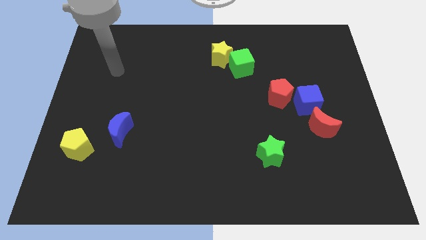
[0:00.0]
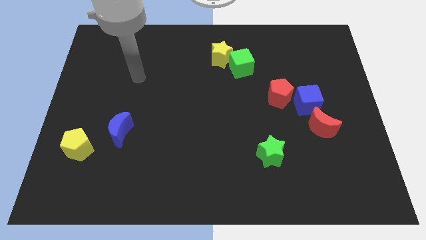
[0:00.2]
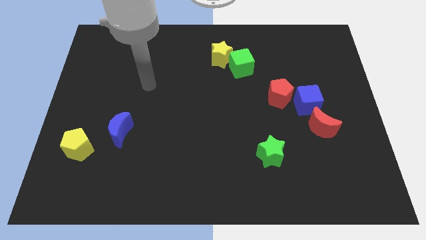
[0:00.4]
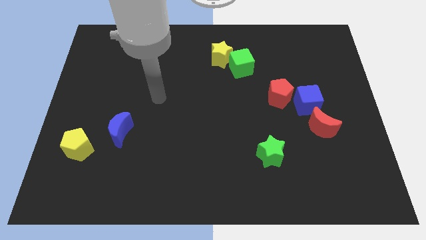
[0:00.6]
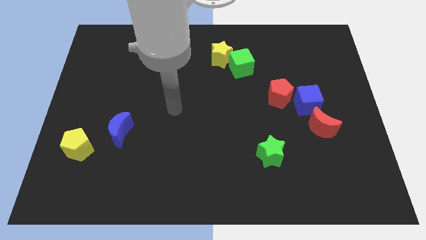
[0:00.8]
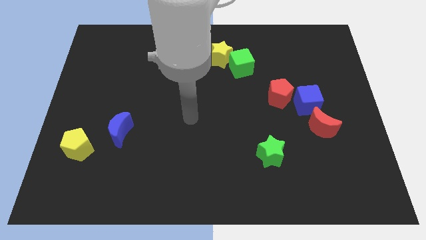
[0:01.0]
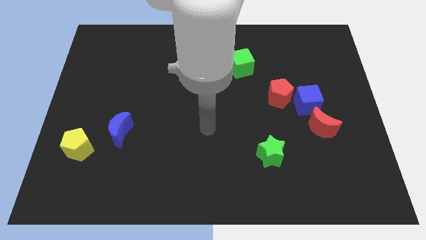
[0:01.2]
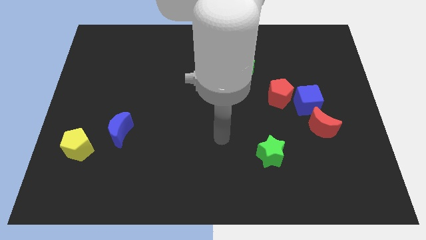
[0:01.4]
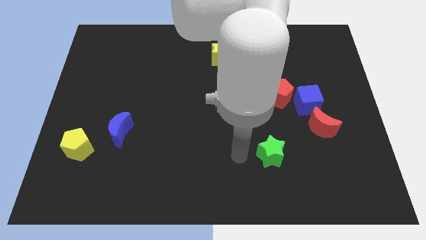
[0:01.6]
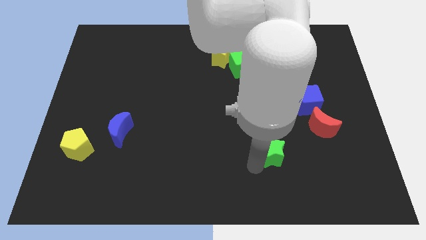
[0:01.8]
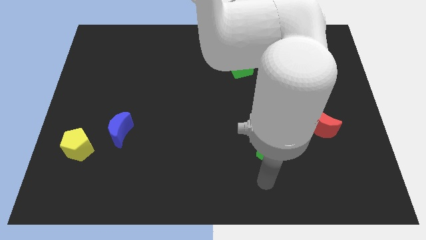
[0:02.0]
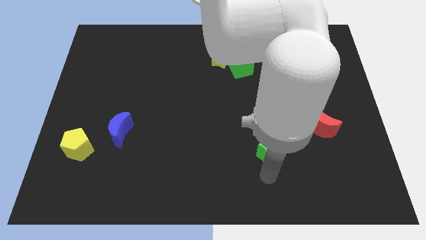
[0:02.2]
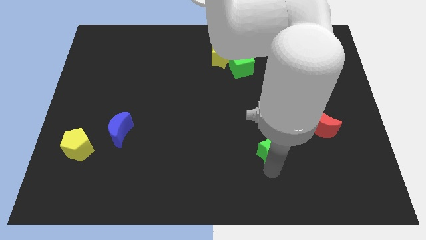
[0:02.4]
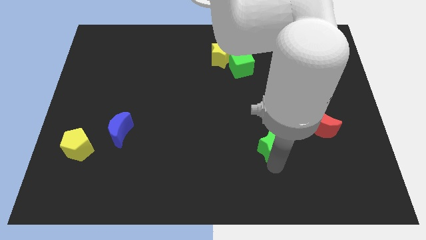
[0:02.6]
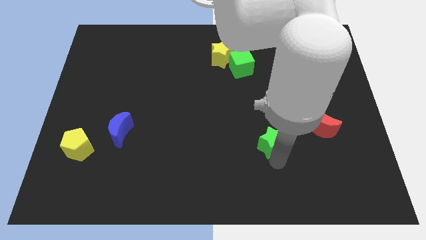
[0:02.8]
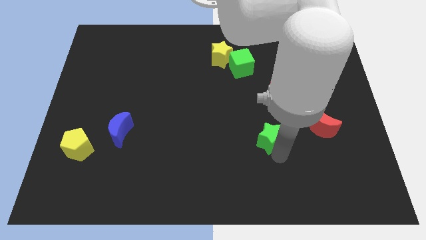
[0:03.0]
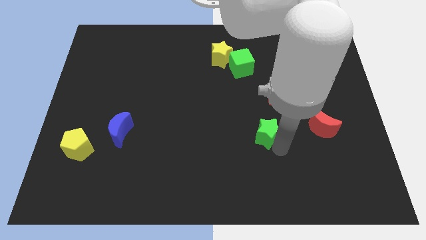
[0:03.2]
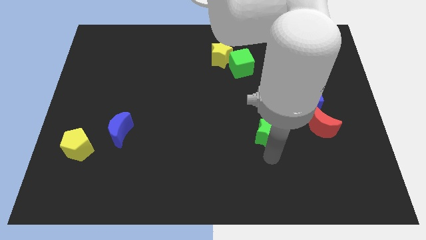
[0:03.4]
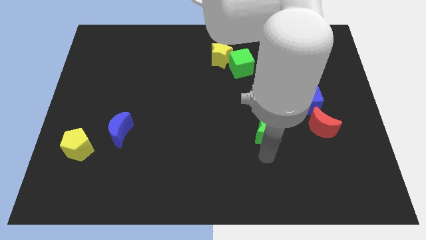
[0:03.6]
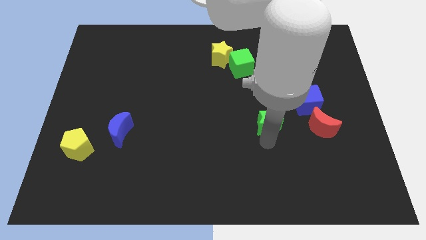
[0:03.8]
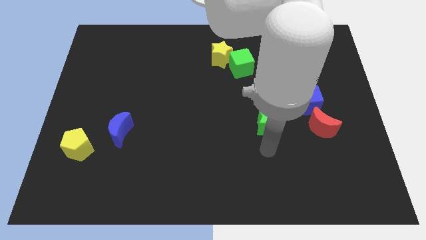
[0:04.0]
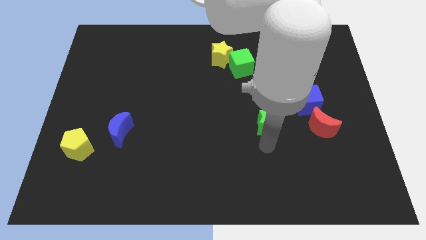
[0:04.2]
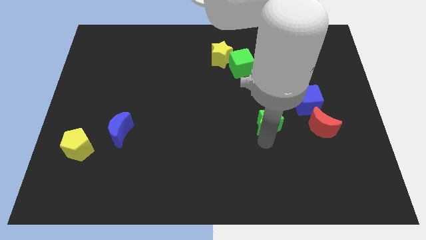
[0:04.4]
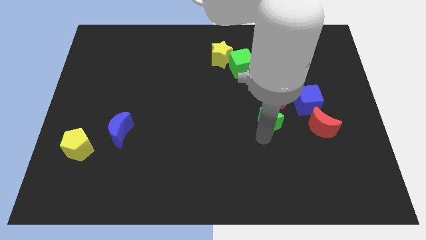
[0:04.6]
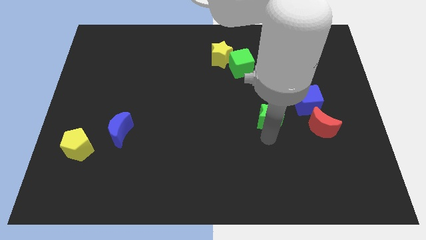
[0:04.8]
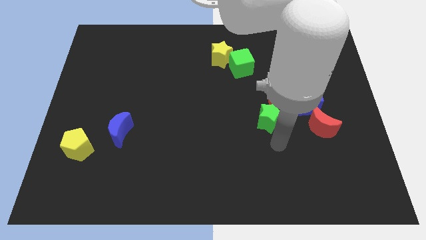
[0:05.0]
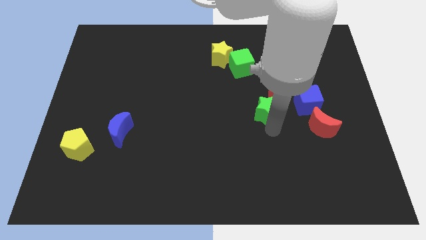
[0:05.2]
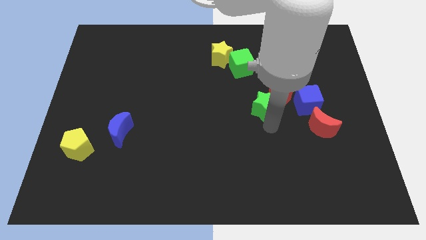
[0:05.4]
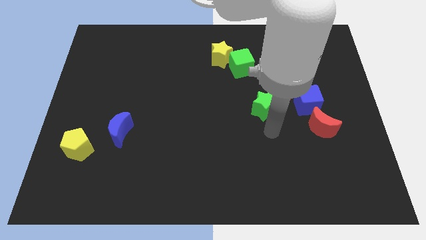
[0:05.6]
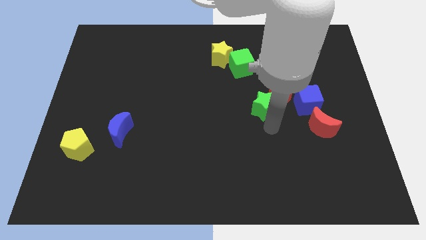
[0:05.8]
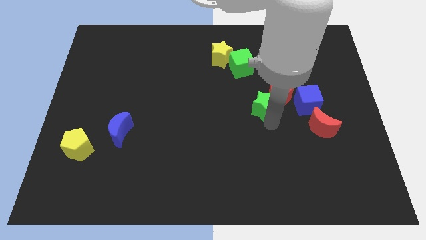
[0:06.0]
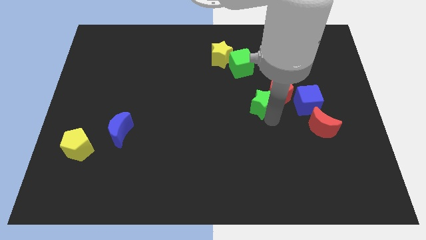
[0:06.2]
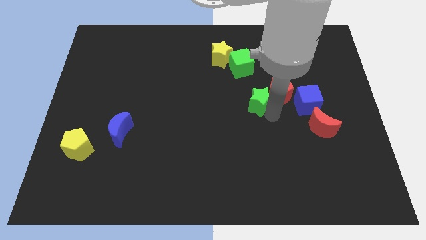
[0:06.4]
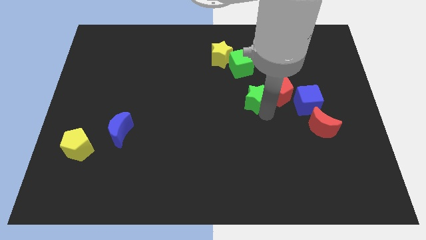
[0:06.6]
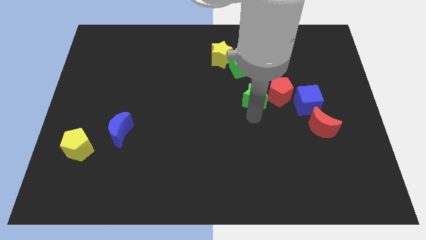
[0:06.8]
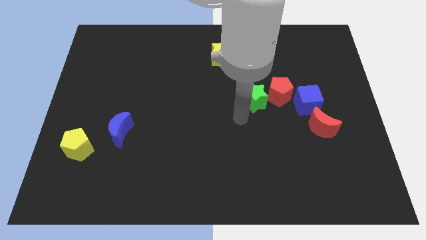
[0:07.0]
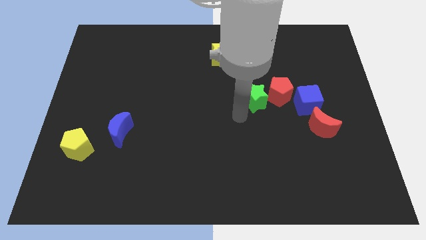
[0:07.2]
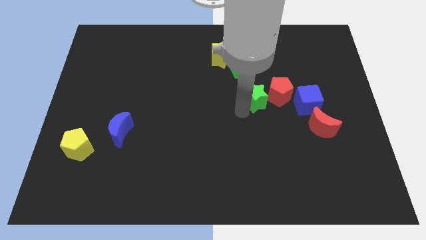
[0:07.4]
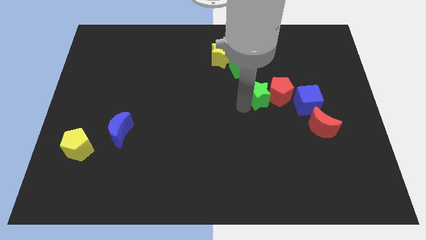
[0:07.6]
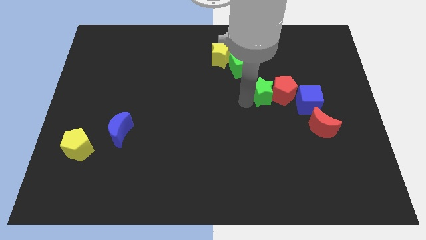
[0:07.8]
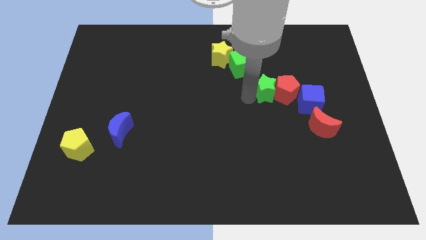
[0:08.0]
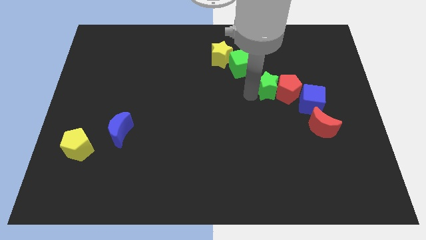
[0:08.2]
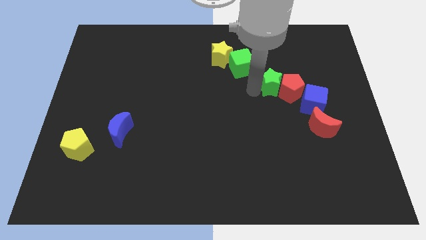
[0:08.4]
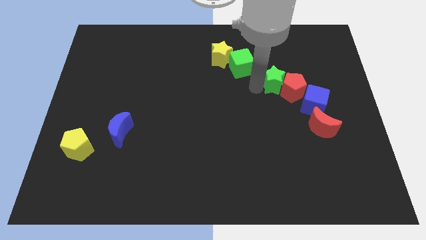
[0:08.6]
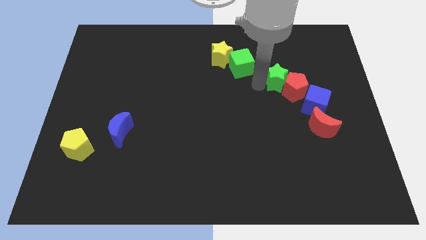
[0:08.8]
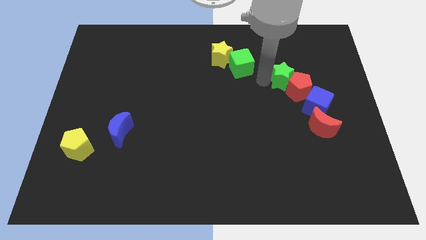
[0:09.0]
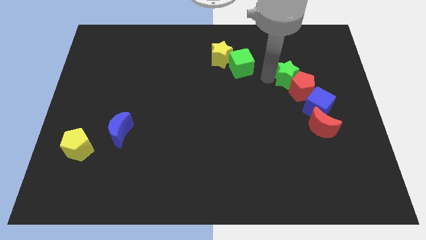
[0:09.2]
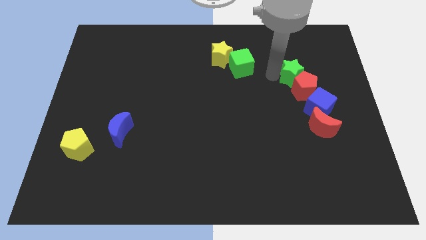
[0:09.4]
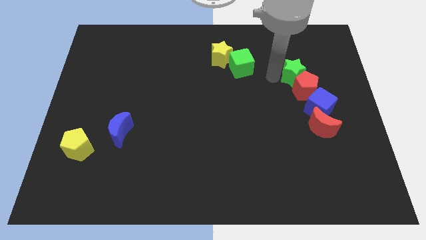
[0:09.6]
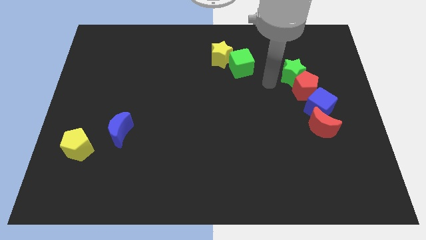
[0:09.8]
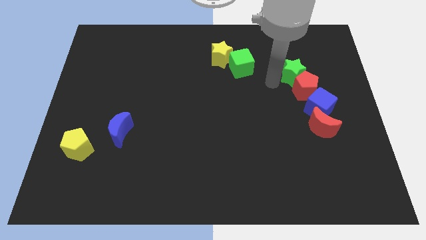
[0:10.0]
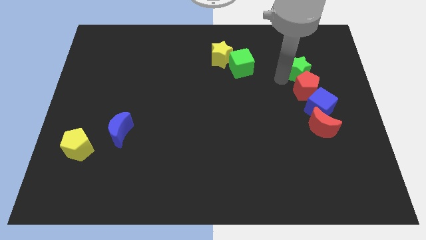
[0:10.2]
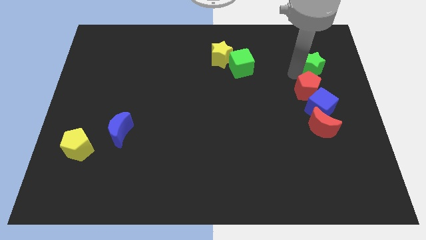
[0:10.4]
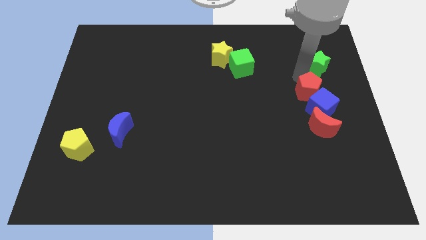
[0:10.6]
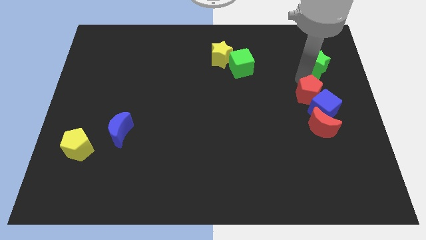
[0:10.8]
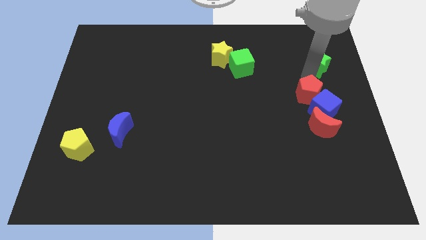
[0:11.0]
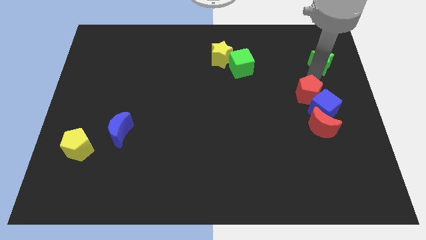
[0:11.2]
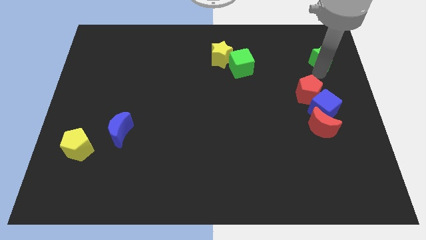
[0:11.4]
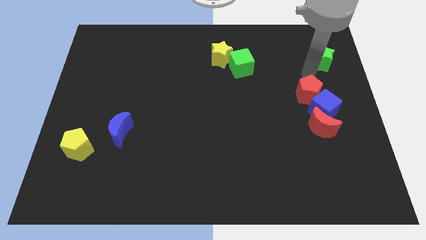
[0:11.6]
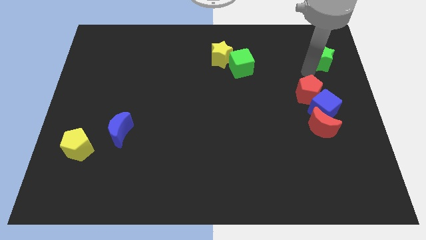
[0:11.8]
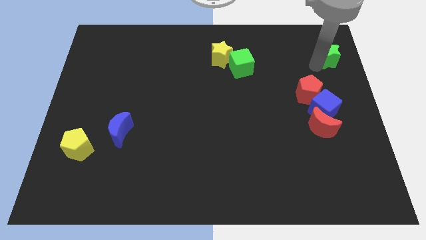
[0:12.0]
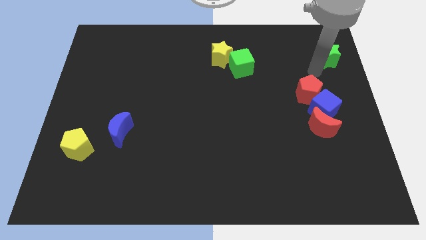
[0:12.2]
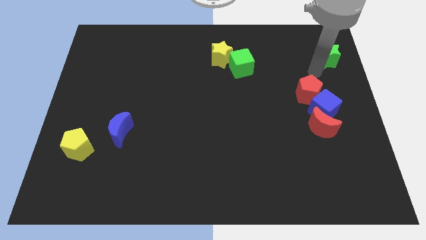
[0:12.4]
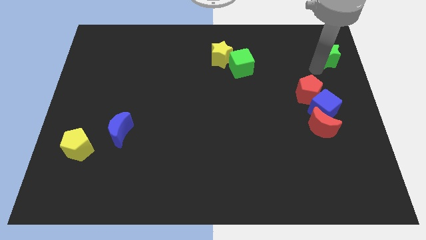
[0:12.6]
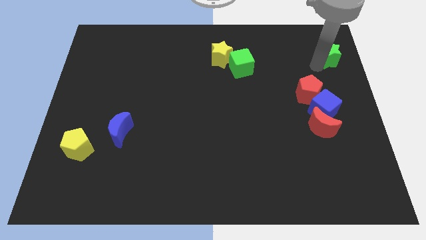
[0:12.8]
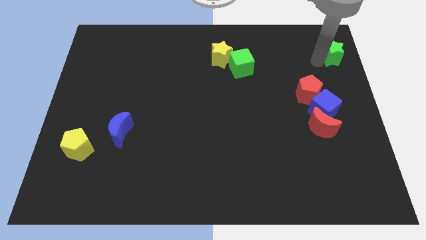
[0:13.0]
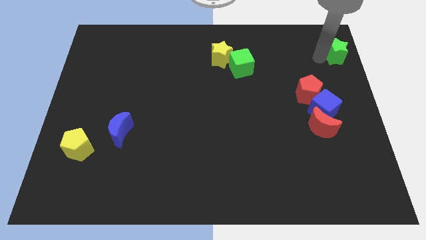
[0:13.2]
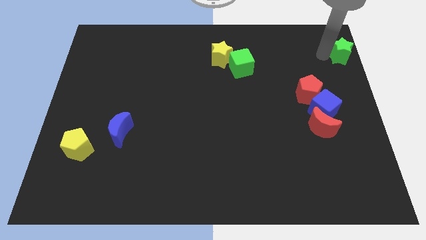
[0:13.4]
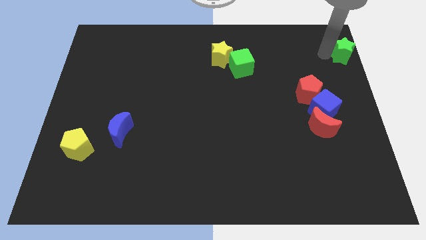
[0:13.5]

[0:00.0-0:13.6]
move the green star to the top right of the board
